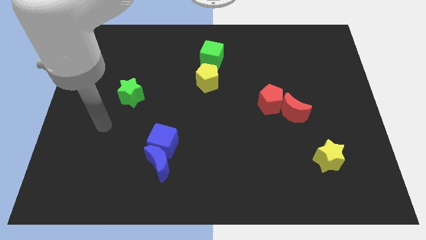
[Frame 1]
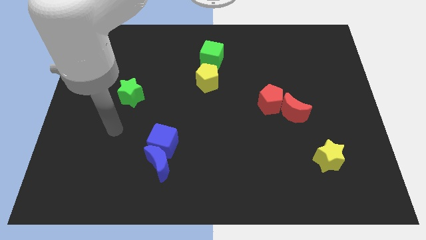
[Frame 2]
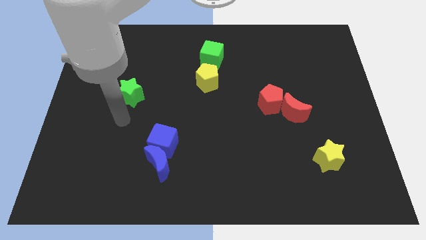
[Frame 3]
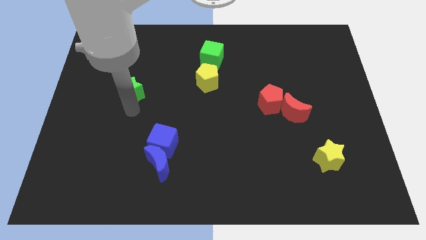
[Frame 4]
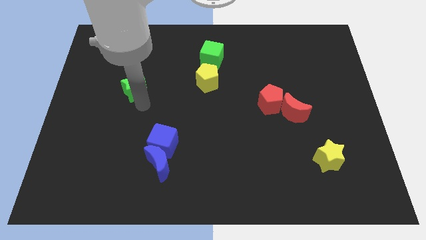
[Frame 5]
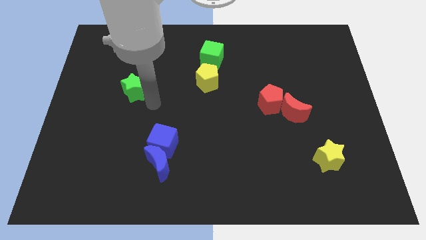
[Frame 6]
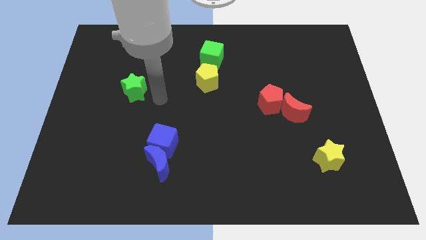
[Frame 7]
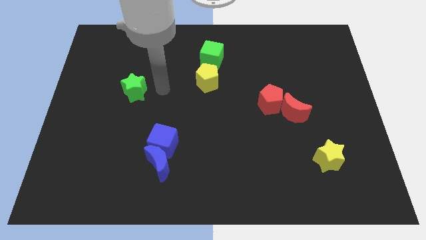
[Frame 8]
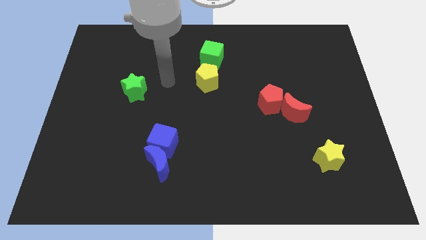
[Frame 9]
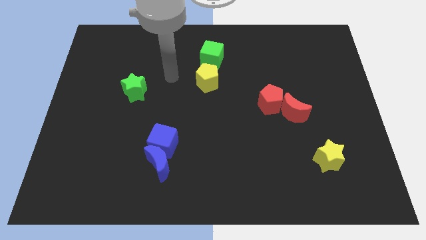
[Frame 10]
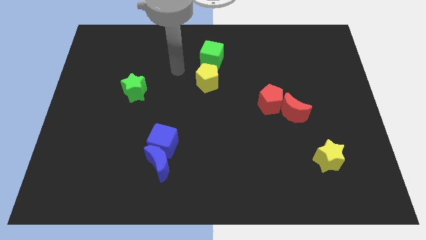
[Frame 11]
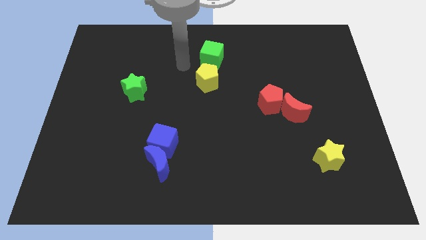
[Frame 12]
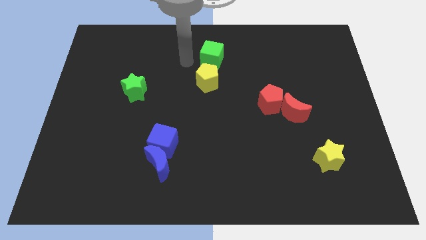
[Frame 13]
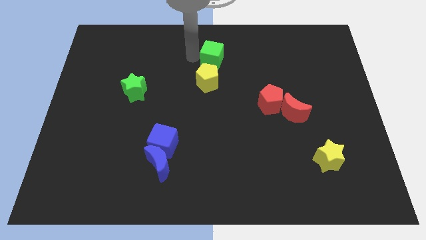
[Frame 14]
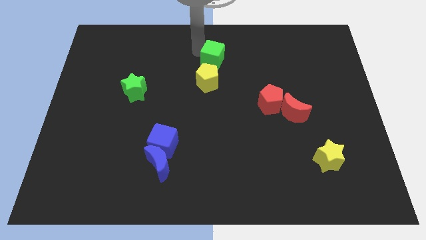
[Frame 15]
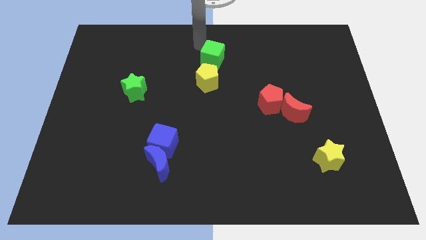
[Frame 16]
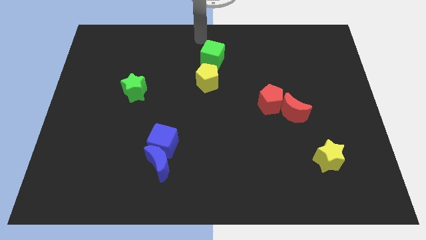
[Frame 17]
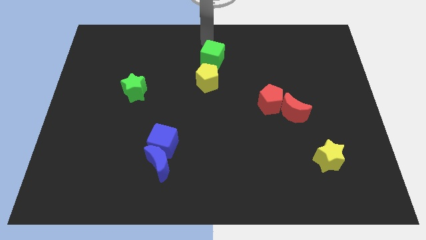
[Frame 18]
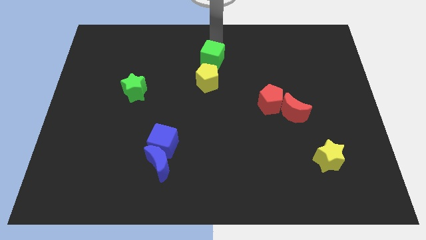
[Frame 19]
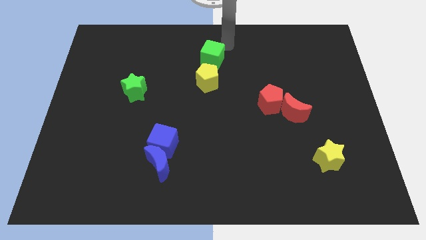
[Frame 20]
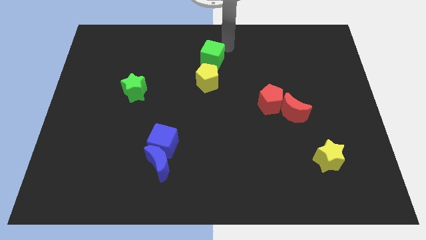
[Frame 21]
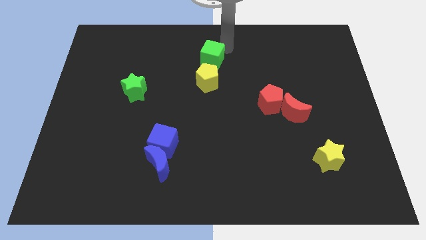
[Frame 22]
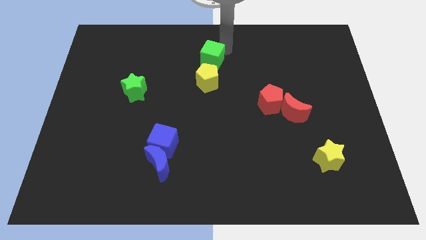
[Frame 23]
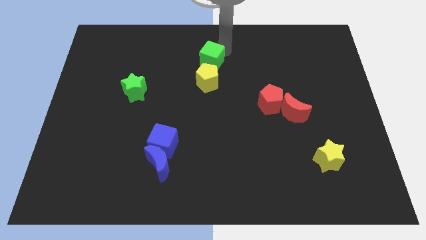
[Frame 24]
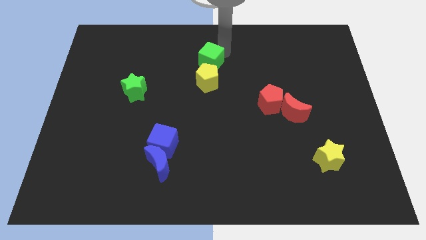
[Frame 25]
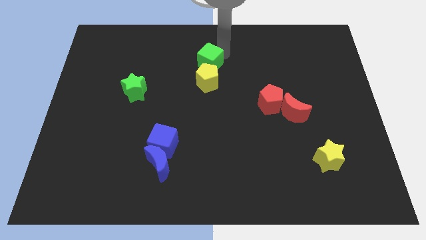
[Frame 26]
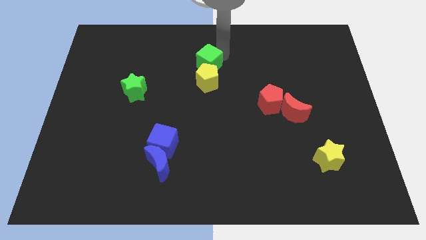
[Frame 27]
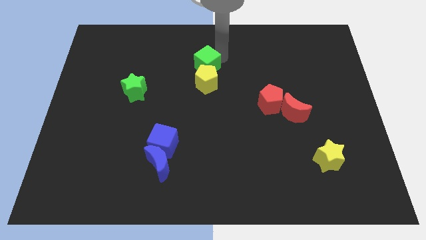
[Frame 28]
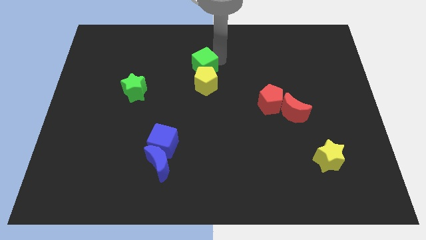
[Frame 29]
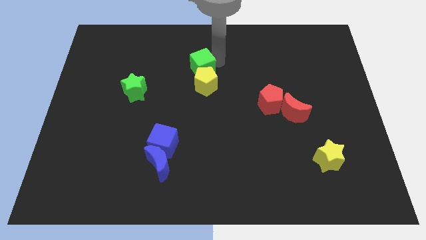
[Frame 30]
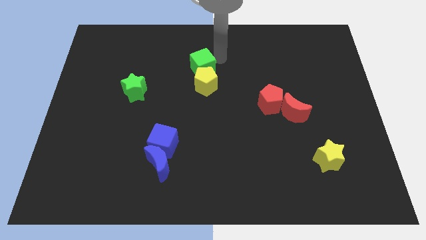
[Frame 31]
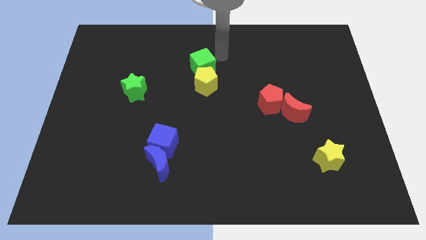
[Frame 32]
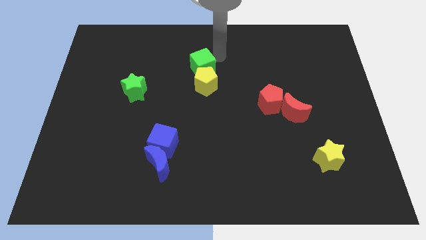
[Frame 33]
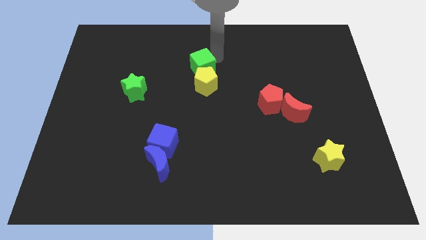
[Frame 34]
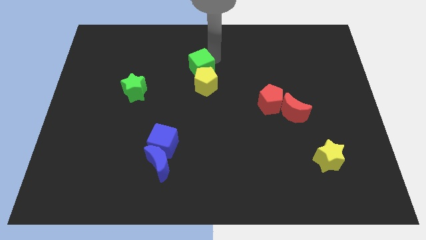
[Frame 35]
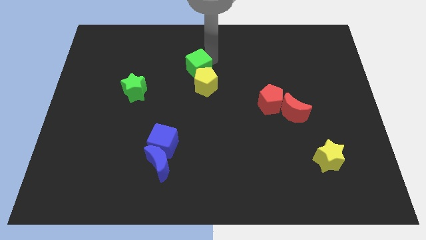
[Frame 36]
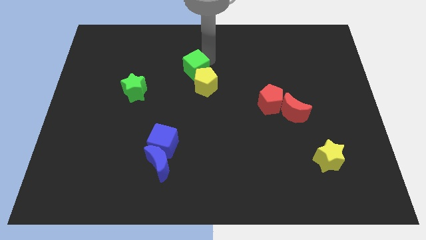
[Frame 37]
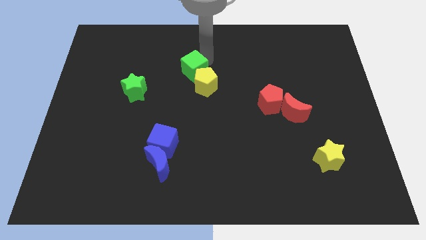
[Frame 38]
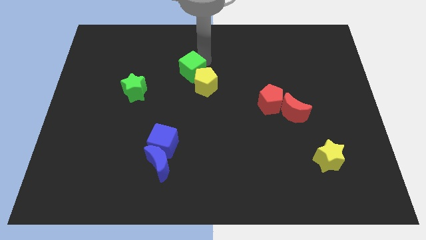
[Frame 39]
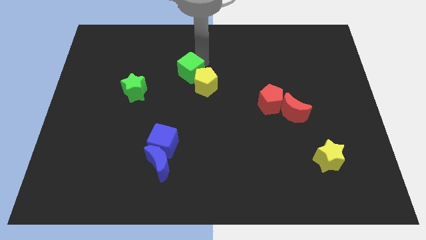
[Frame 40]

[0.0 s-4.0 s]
slightly move the green cube down and then to the left

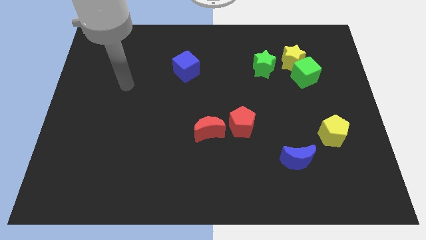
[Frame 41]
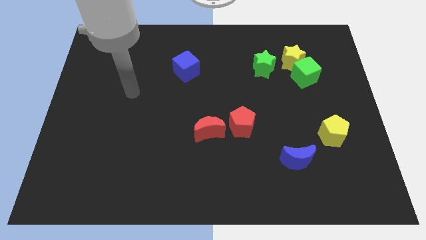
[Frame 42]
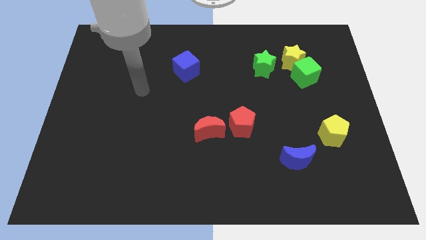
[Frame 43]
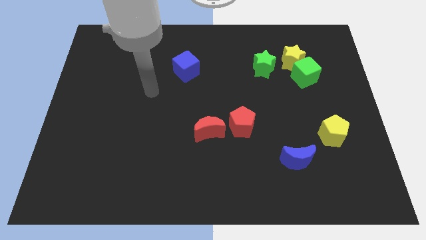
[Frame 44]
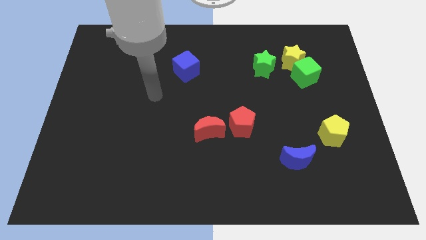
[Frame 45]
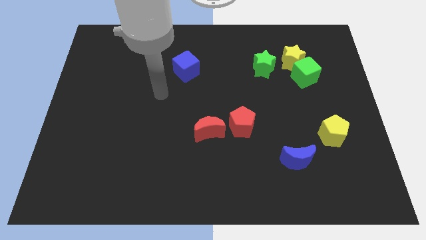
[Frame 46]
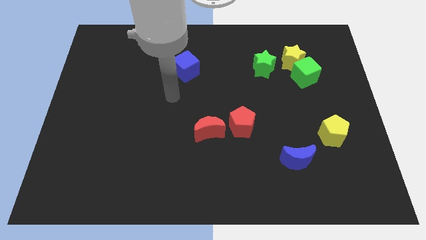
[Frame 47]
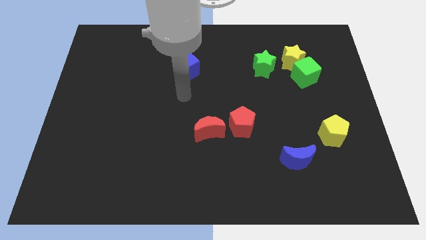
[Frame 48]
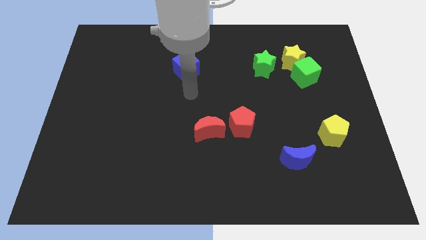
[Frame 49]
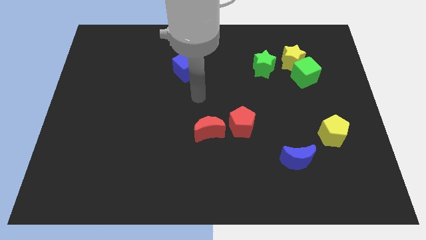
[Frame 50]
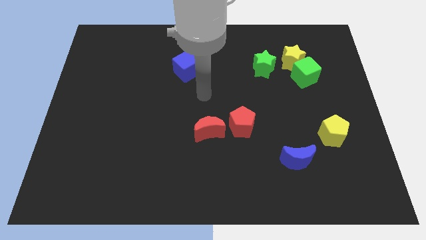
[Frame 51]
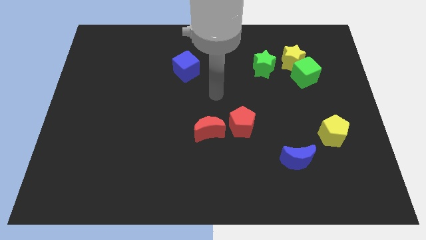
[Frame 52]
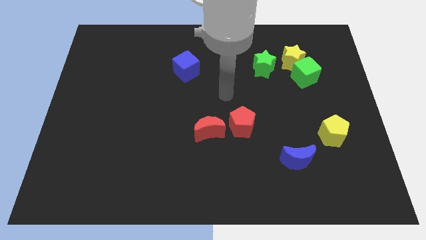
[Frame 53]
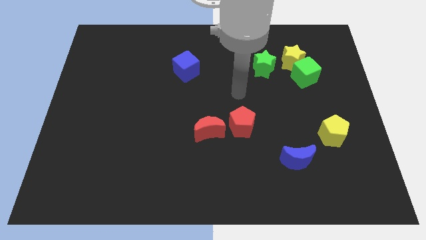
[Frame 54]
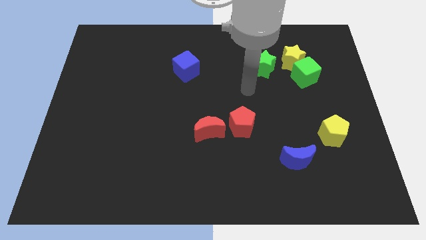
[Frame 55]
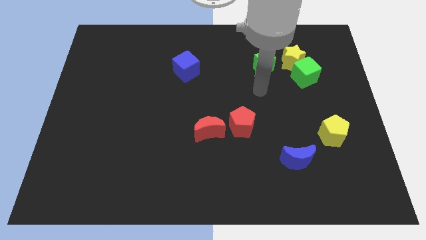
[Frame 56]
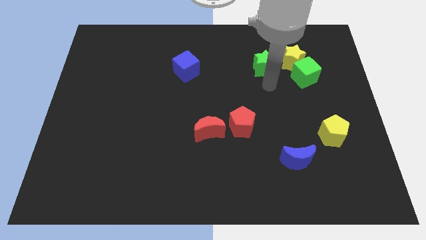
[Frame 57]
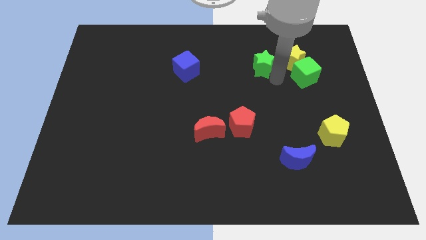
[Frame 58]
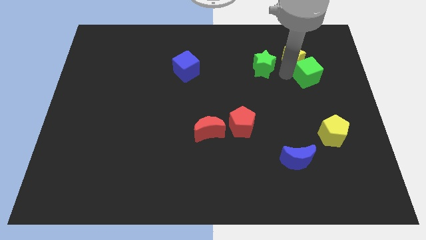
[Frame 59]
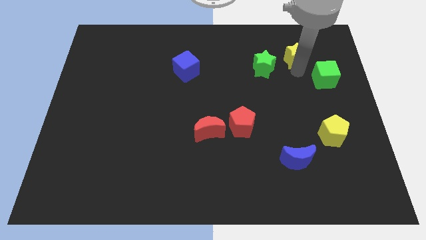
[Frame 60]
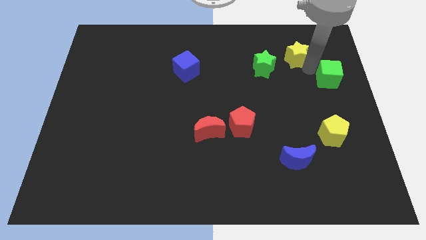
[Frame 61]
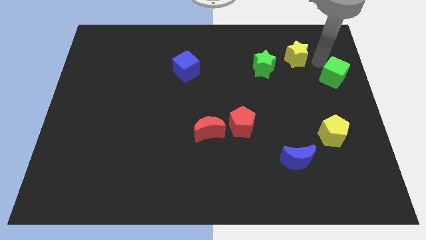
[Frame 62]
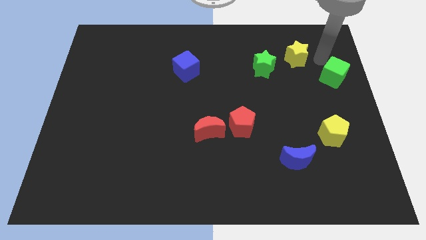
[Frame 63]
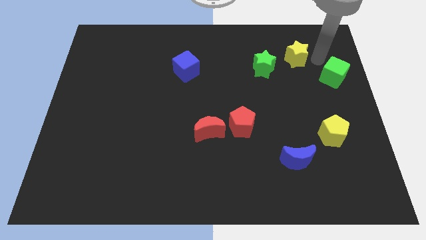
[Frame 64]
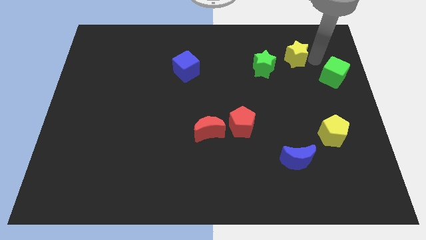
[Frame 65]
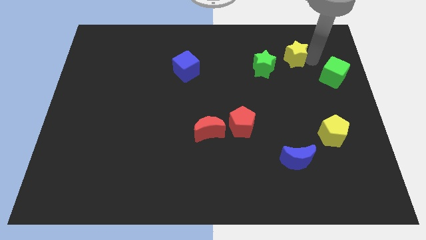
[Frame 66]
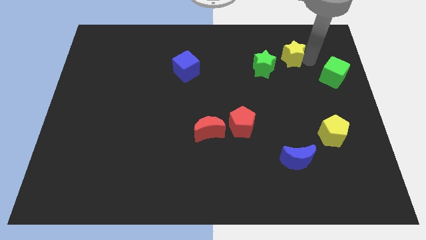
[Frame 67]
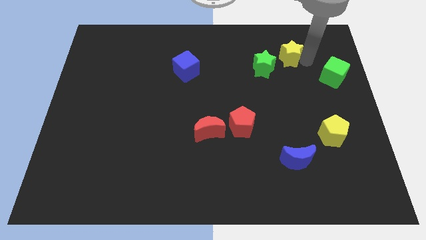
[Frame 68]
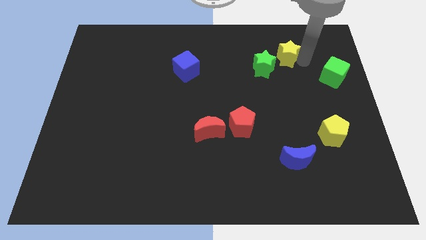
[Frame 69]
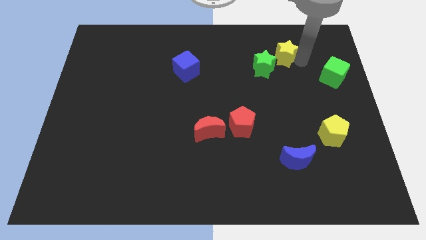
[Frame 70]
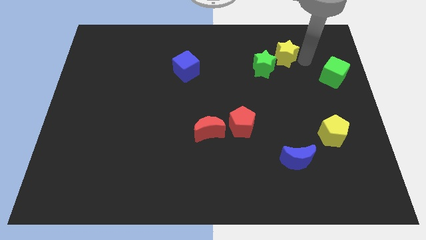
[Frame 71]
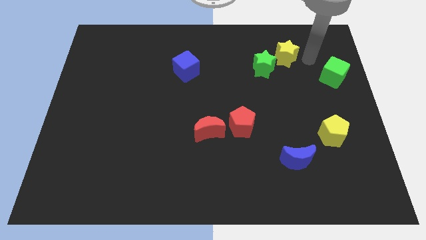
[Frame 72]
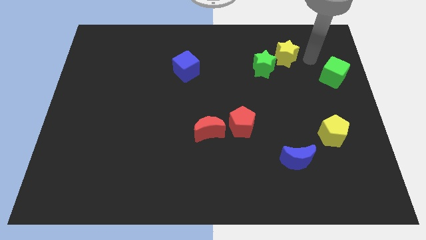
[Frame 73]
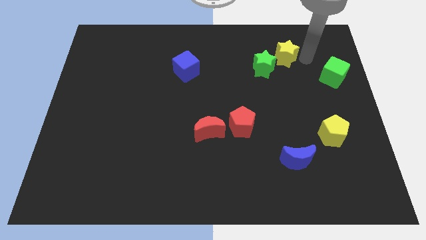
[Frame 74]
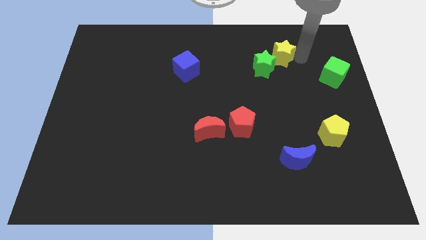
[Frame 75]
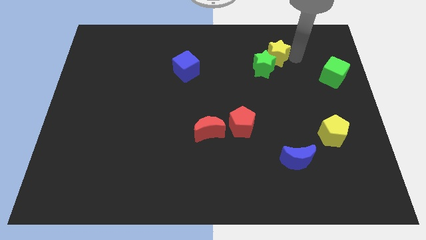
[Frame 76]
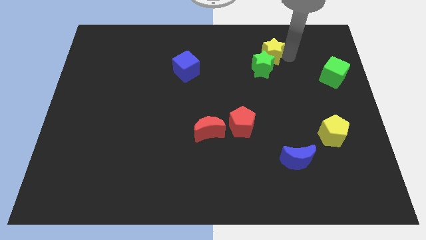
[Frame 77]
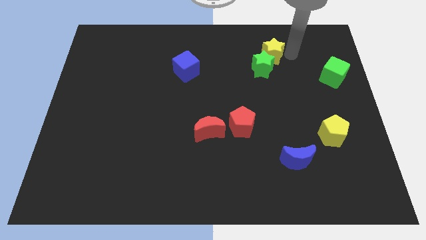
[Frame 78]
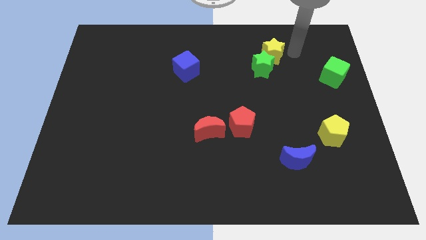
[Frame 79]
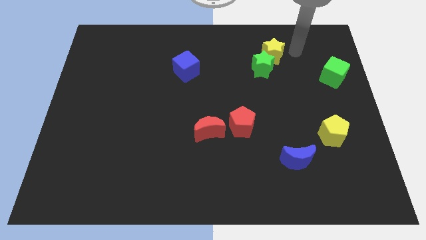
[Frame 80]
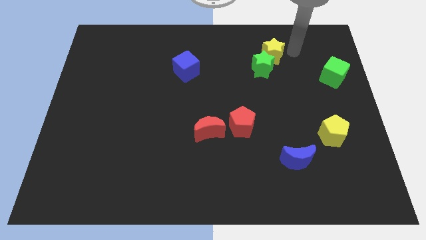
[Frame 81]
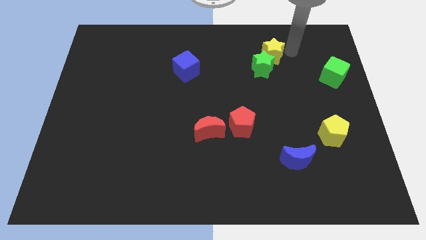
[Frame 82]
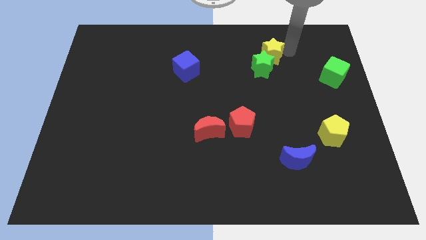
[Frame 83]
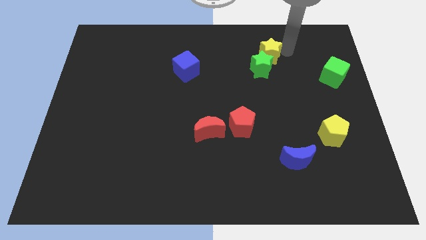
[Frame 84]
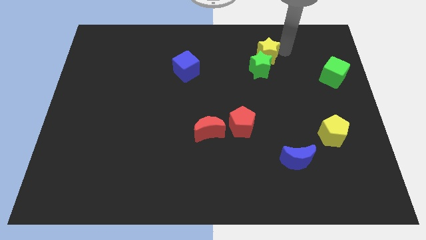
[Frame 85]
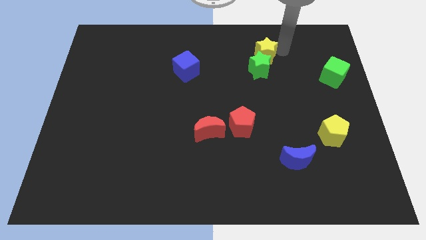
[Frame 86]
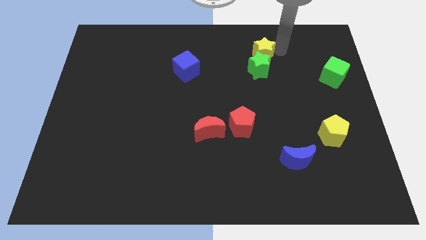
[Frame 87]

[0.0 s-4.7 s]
move the yellow star somewhat left
